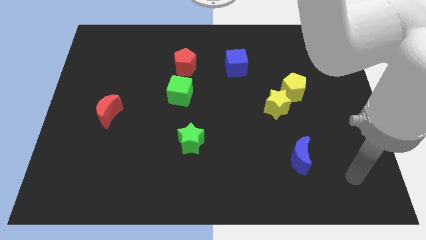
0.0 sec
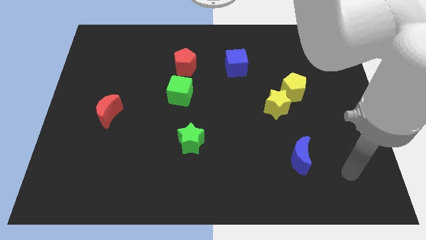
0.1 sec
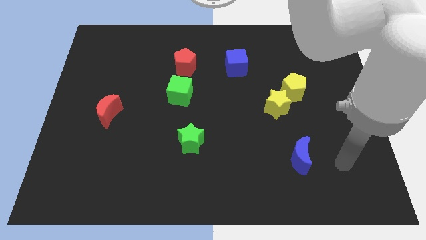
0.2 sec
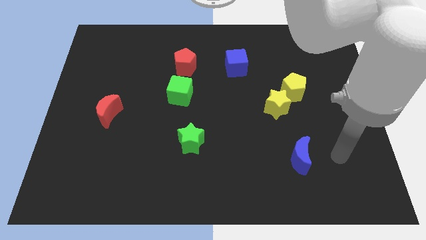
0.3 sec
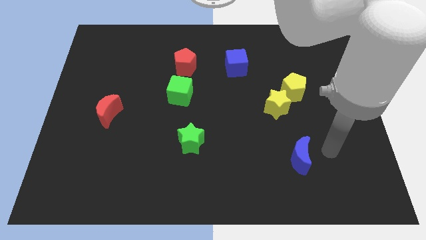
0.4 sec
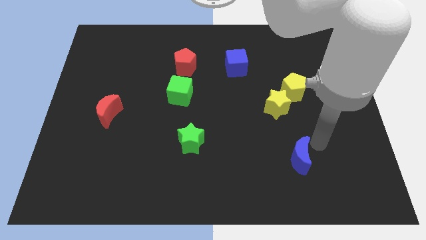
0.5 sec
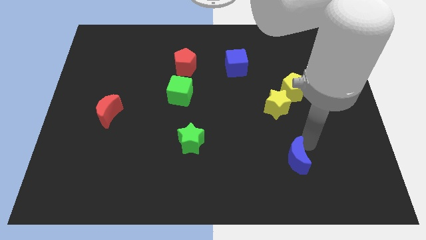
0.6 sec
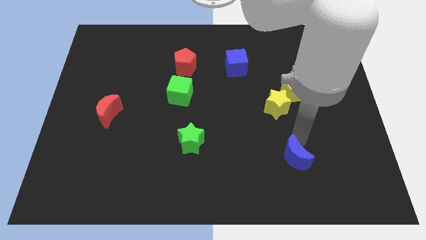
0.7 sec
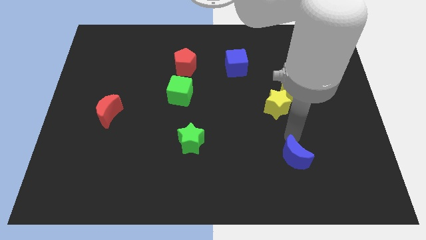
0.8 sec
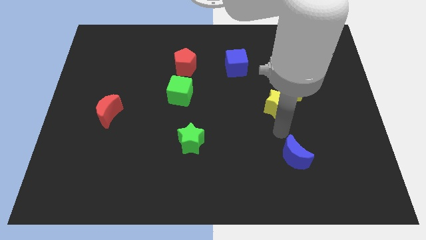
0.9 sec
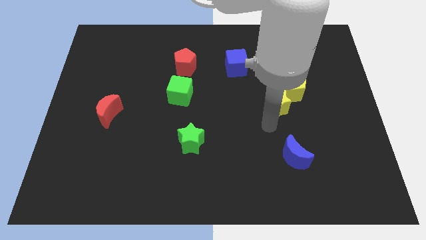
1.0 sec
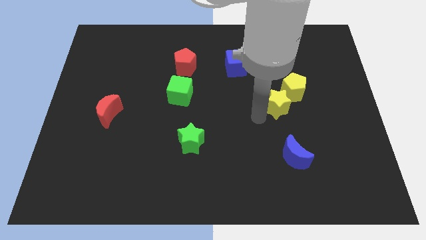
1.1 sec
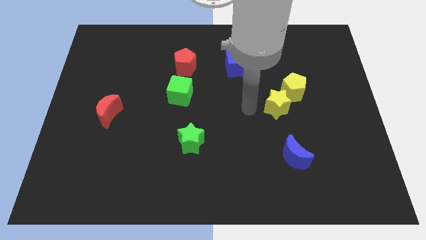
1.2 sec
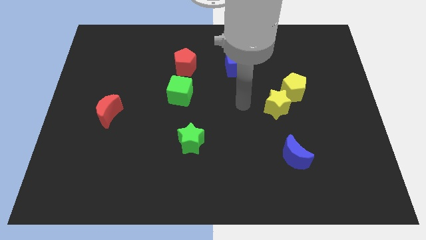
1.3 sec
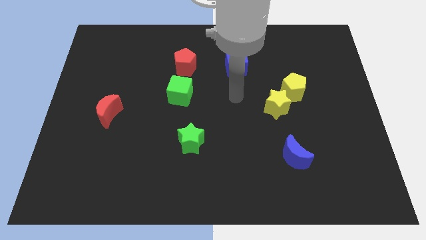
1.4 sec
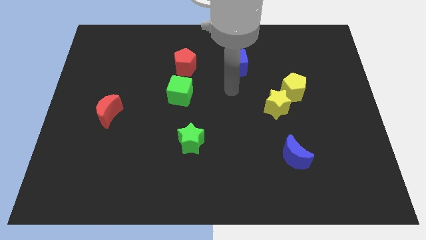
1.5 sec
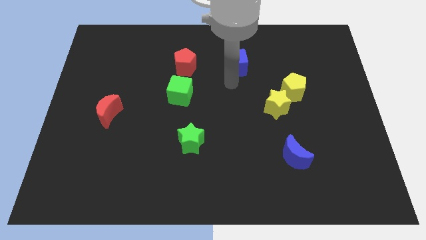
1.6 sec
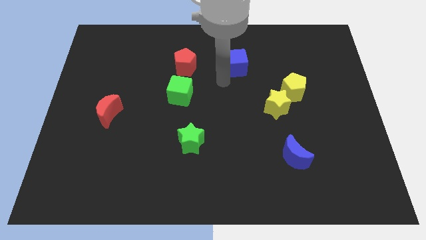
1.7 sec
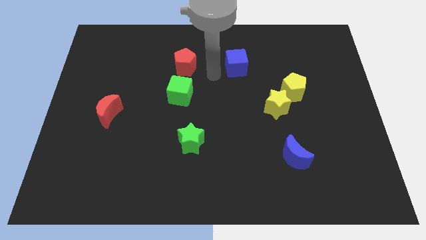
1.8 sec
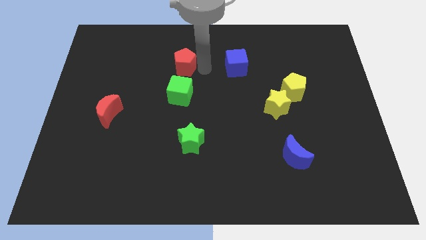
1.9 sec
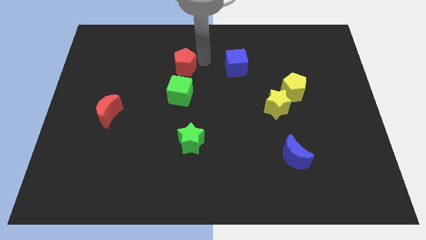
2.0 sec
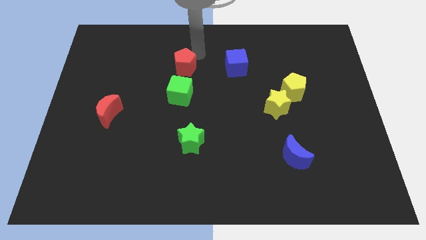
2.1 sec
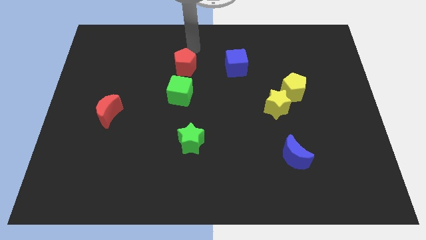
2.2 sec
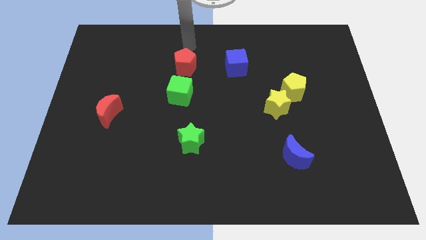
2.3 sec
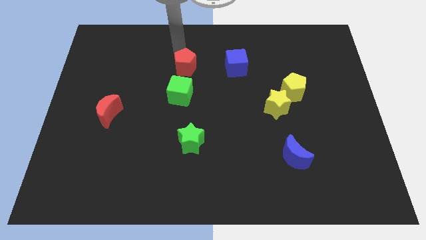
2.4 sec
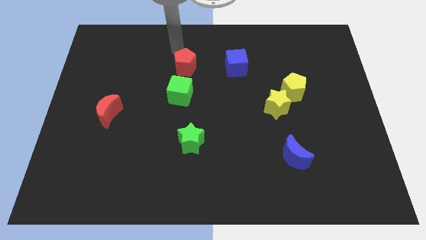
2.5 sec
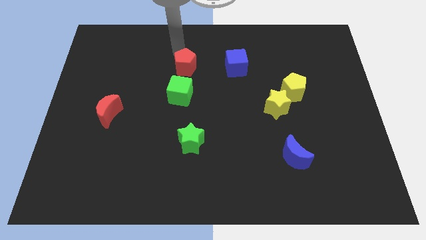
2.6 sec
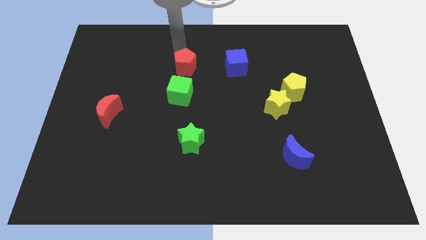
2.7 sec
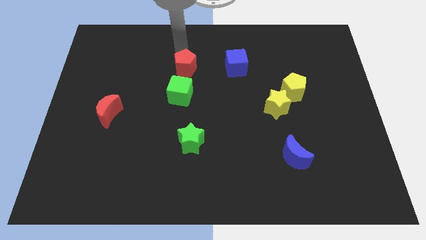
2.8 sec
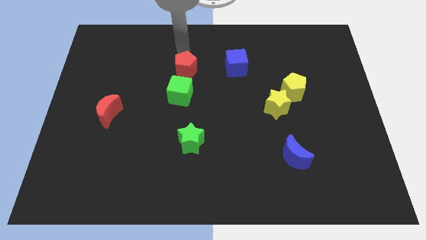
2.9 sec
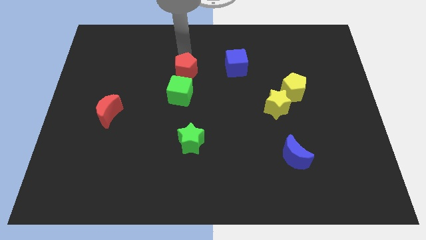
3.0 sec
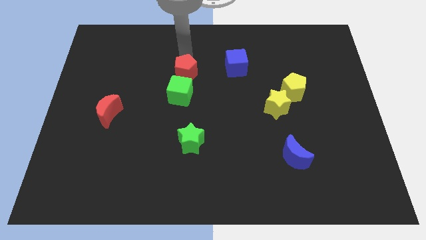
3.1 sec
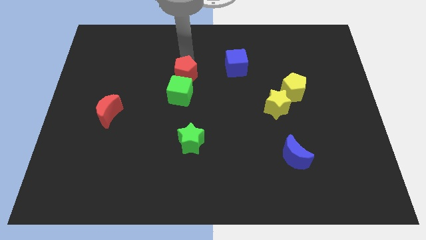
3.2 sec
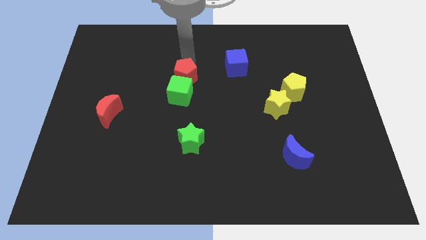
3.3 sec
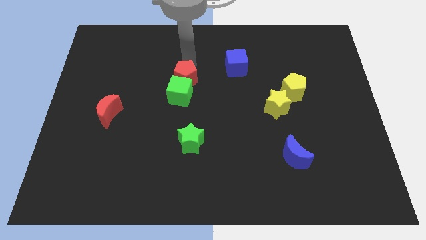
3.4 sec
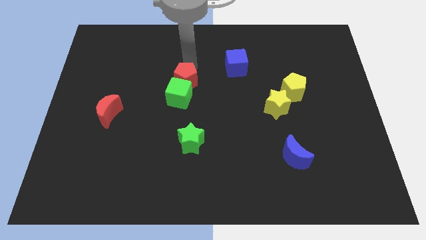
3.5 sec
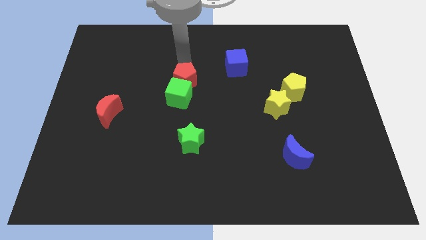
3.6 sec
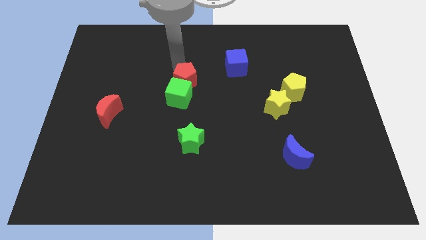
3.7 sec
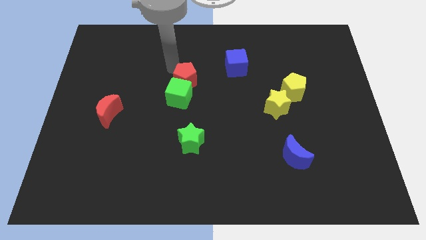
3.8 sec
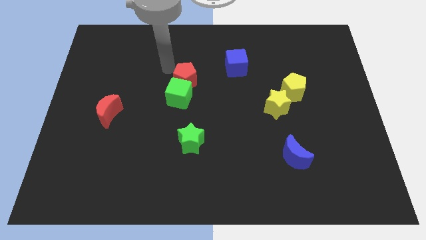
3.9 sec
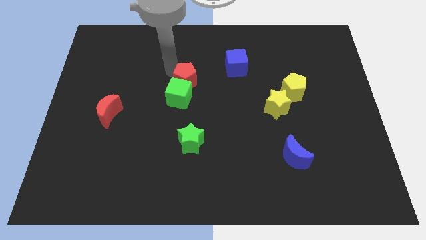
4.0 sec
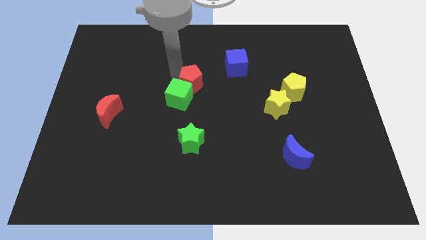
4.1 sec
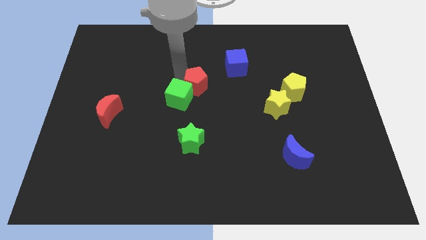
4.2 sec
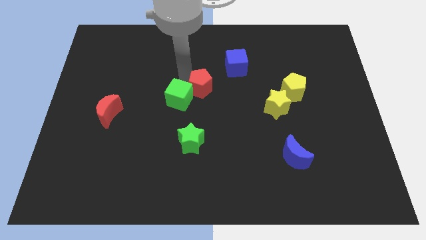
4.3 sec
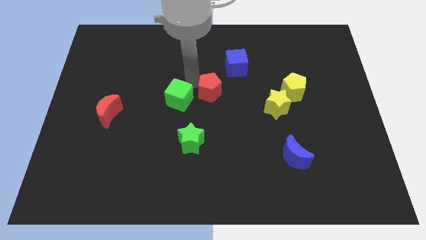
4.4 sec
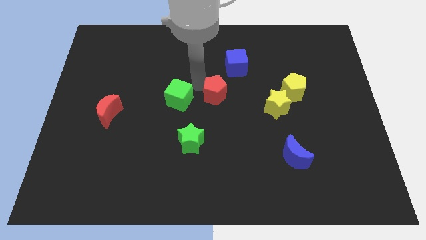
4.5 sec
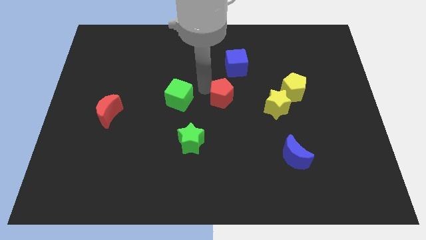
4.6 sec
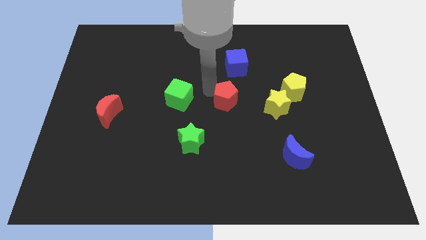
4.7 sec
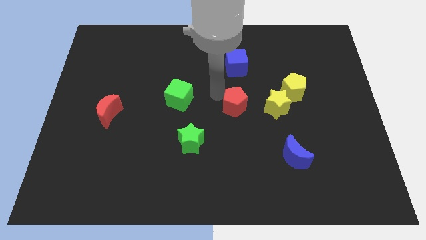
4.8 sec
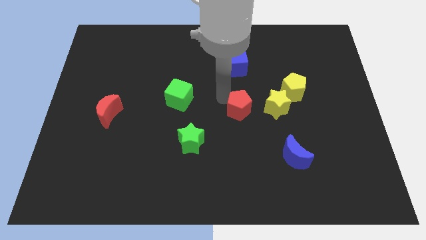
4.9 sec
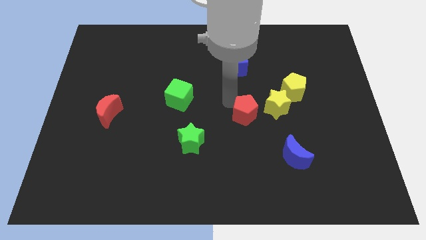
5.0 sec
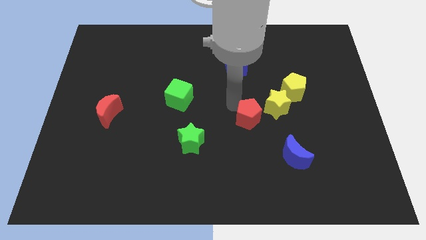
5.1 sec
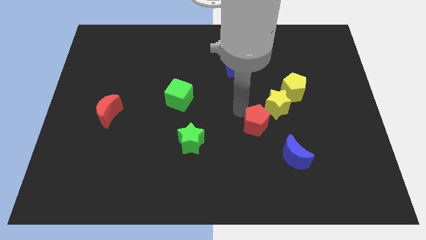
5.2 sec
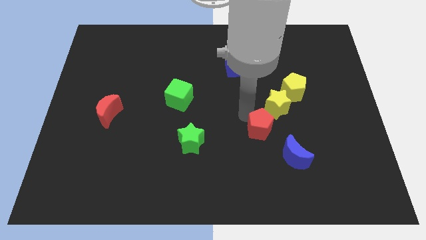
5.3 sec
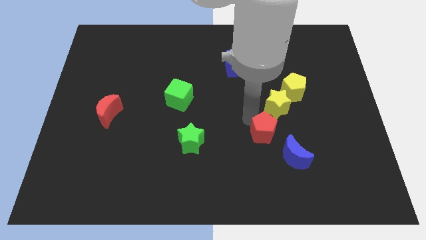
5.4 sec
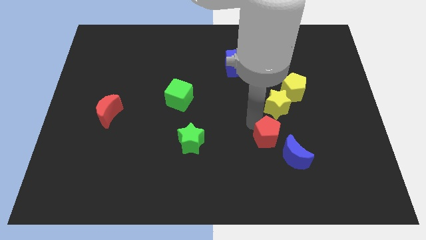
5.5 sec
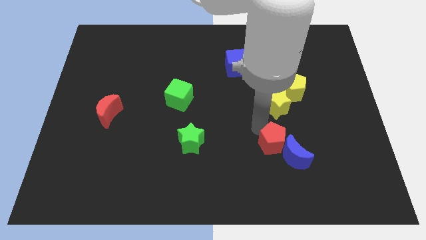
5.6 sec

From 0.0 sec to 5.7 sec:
move the red pentagon to the blue moon

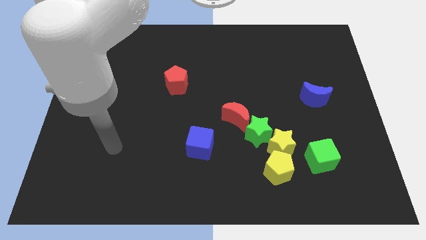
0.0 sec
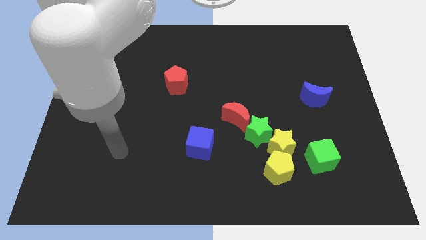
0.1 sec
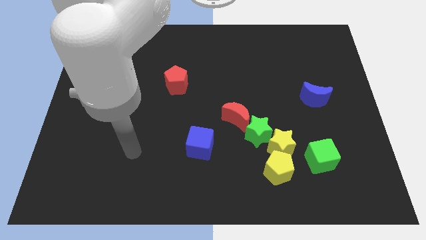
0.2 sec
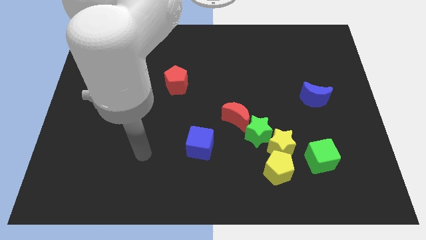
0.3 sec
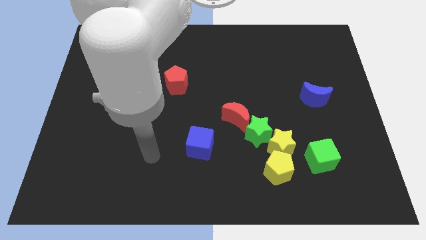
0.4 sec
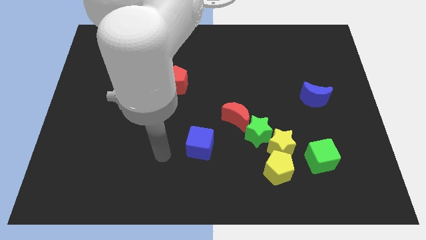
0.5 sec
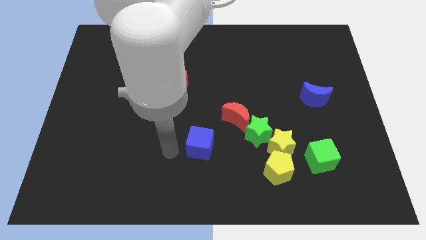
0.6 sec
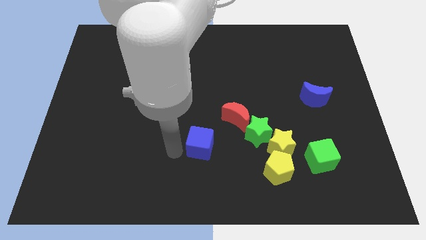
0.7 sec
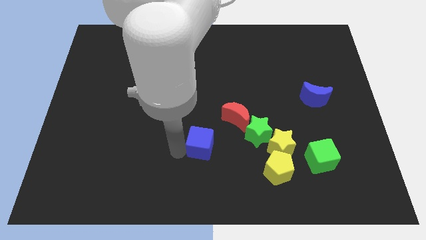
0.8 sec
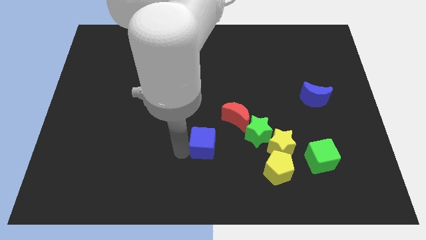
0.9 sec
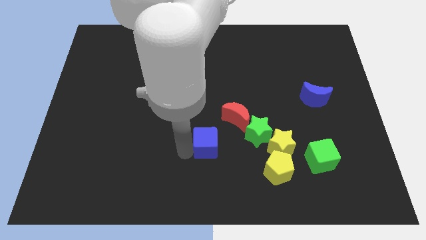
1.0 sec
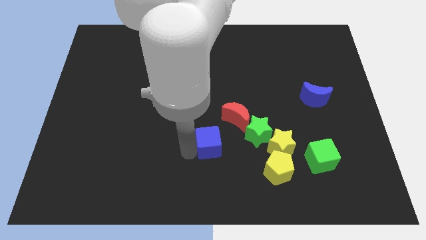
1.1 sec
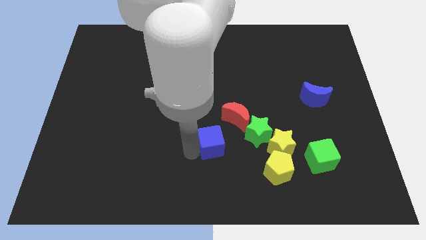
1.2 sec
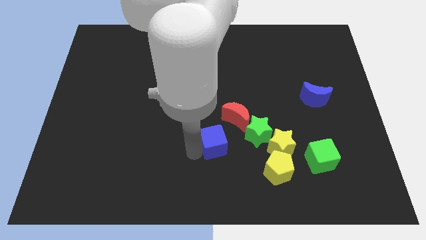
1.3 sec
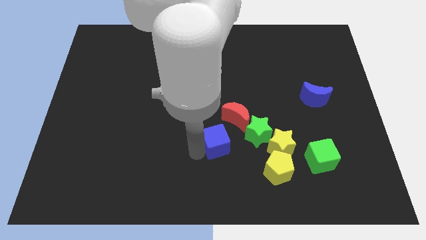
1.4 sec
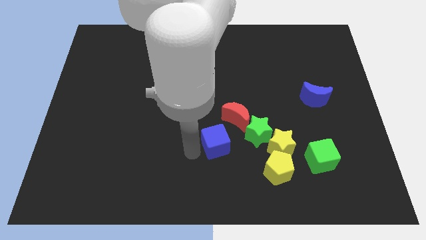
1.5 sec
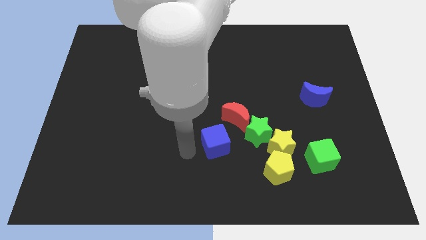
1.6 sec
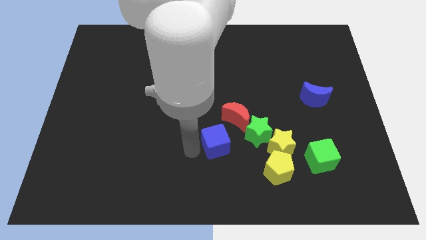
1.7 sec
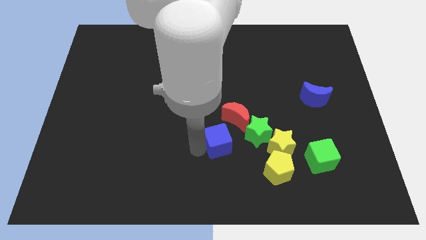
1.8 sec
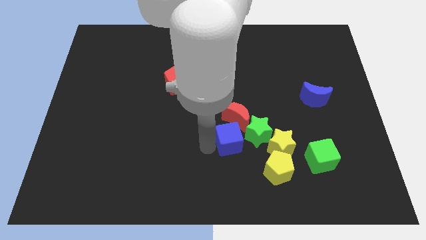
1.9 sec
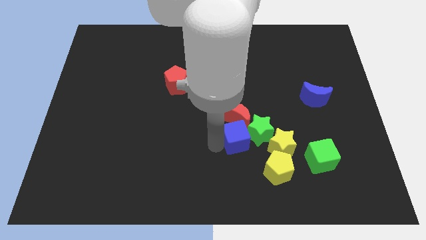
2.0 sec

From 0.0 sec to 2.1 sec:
put the blue cube close to the green star
